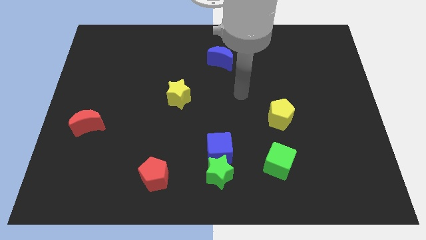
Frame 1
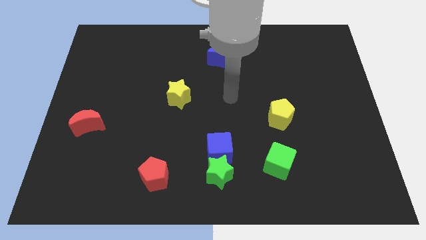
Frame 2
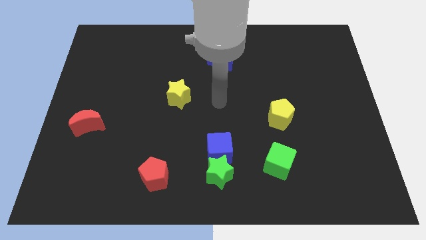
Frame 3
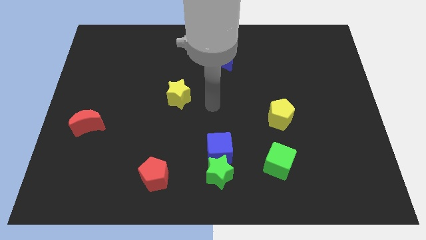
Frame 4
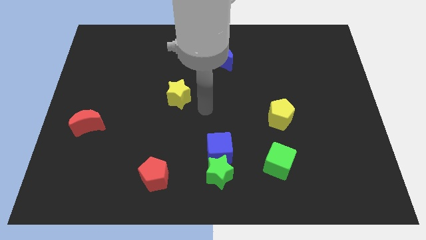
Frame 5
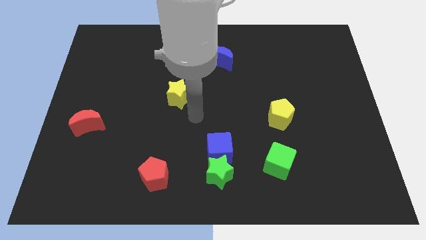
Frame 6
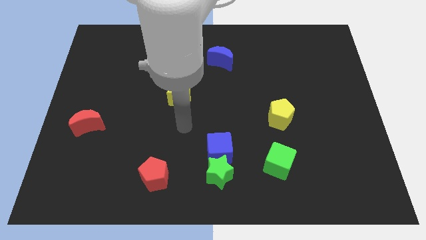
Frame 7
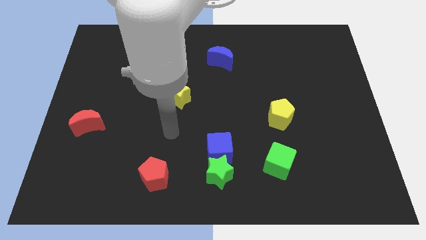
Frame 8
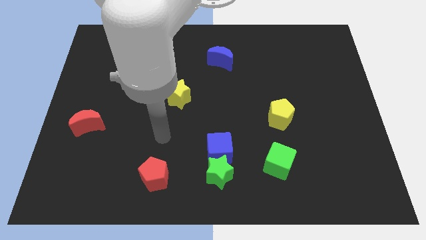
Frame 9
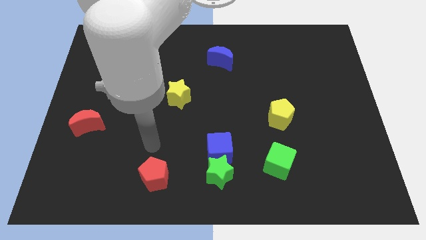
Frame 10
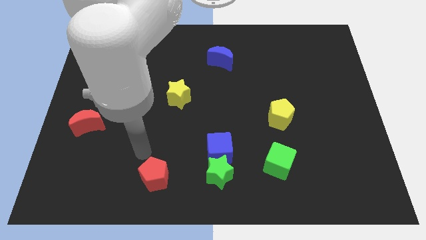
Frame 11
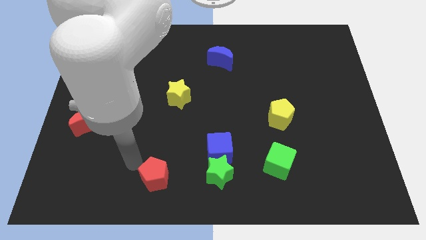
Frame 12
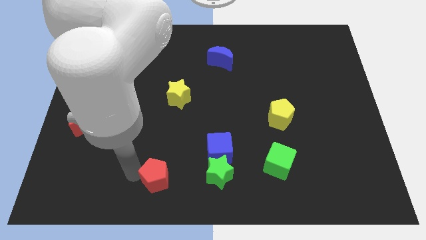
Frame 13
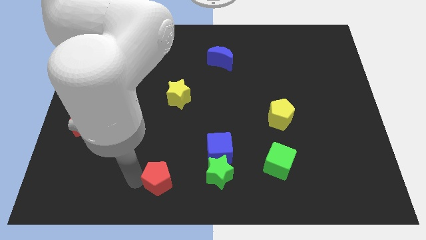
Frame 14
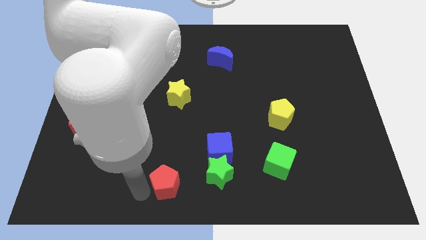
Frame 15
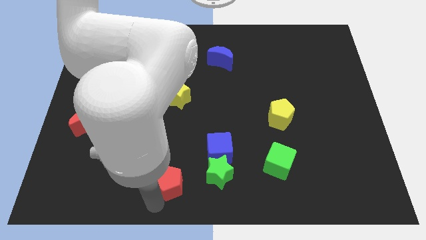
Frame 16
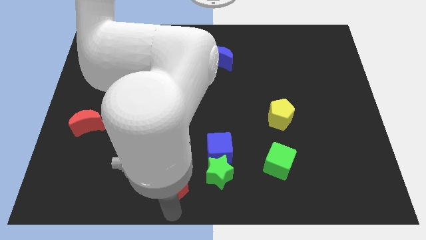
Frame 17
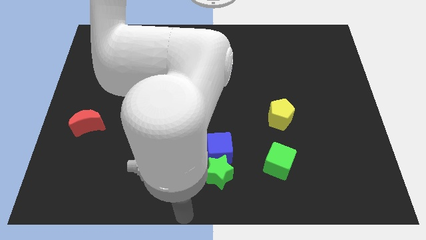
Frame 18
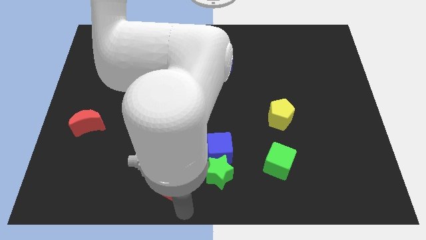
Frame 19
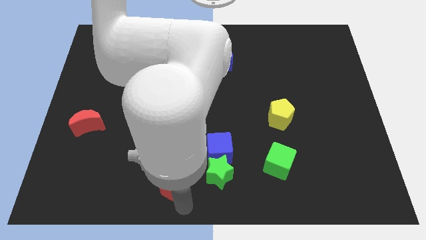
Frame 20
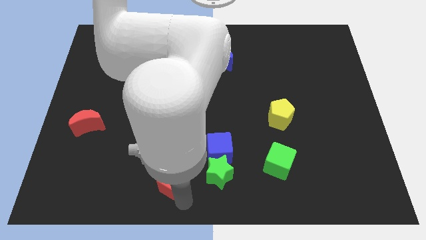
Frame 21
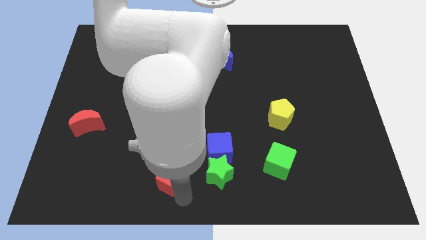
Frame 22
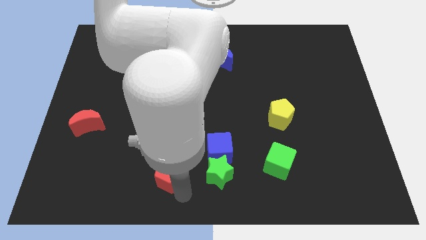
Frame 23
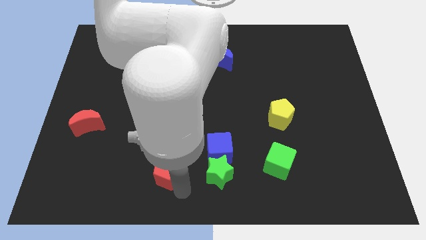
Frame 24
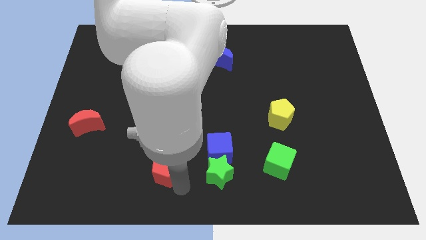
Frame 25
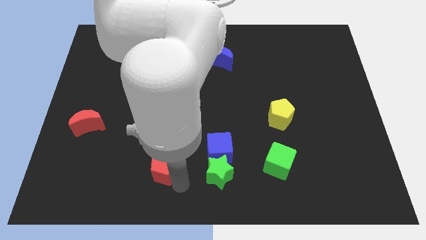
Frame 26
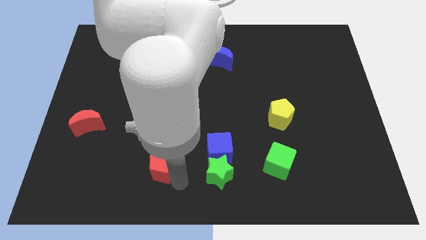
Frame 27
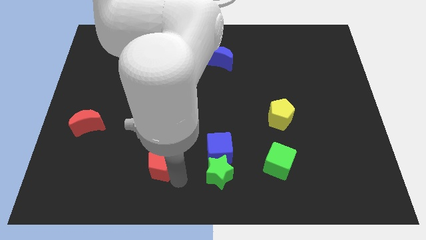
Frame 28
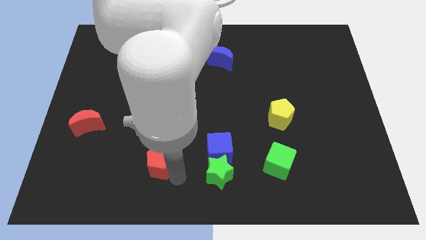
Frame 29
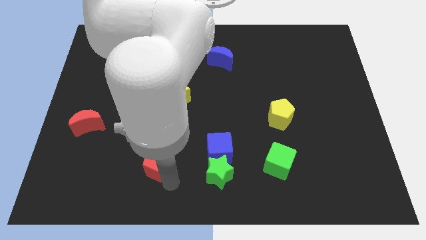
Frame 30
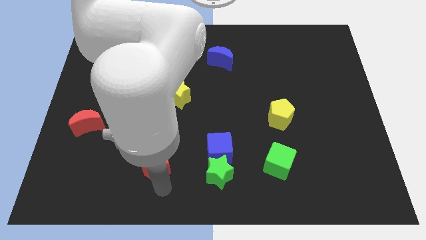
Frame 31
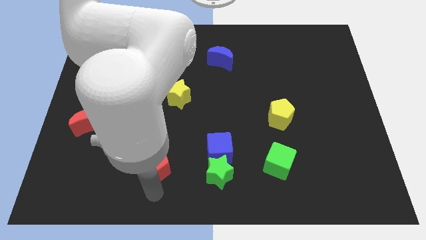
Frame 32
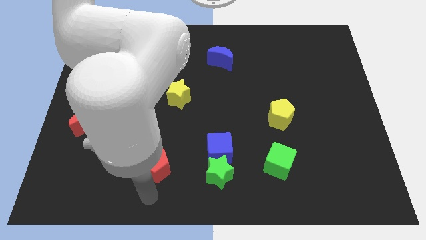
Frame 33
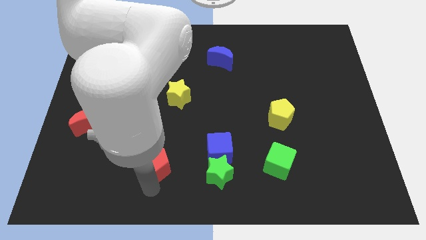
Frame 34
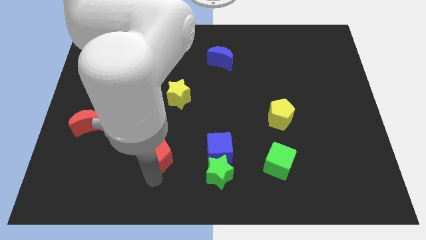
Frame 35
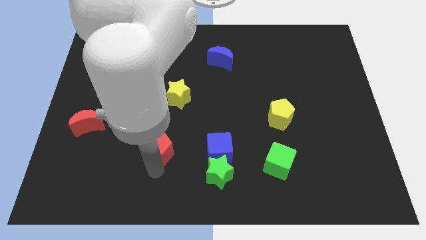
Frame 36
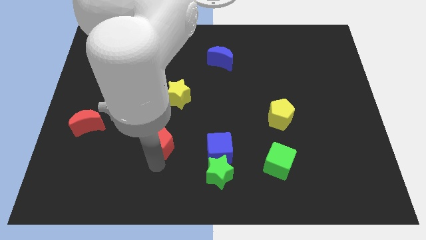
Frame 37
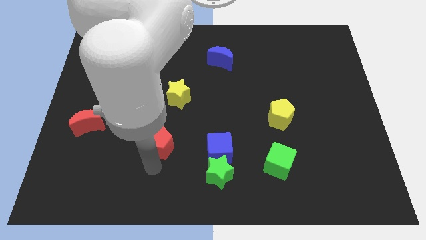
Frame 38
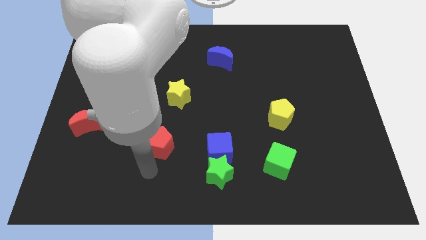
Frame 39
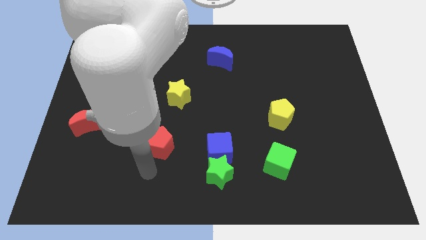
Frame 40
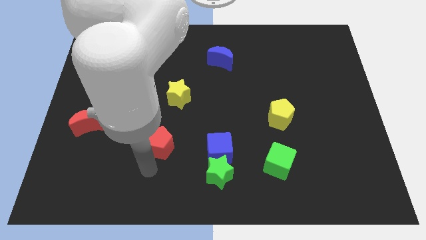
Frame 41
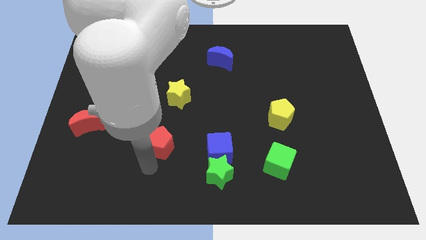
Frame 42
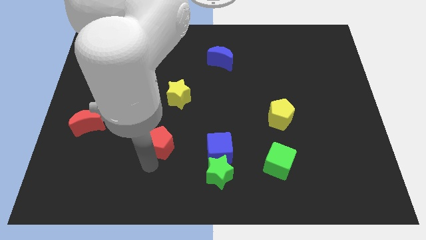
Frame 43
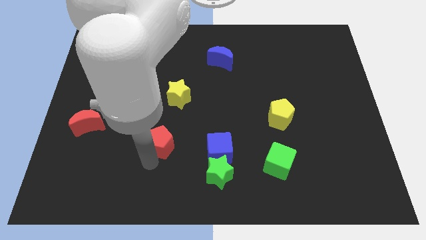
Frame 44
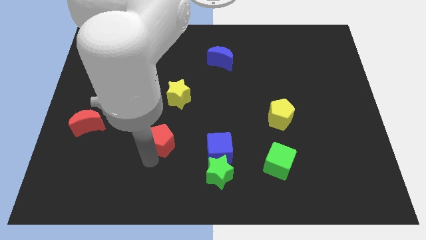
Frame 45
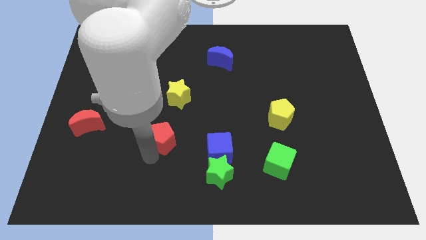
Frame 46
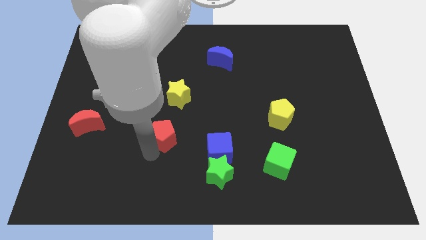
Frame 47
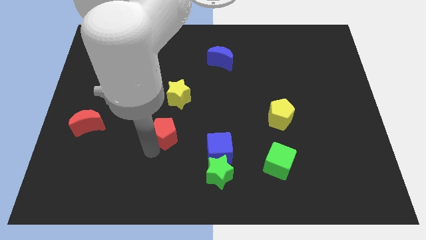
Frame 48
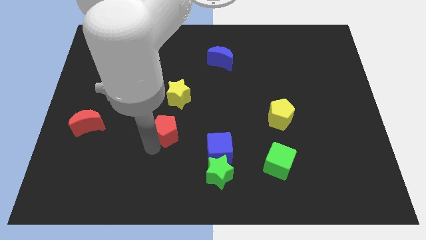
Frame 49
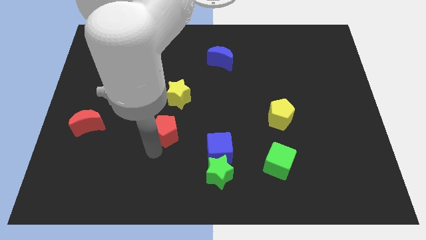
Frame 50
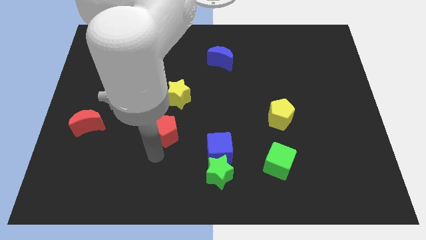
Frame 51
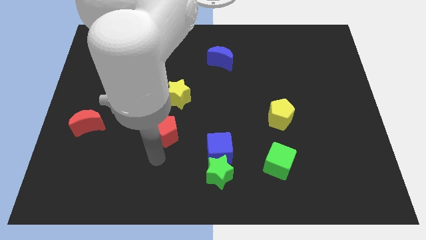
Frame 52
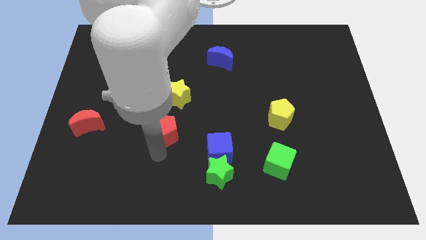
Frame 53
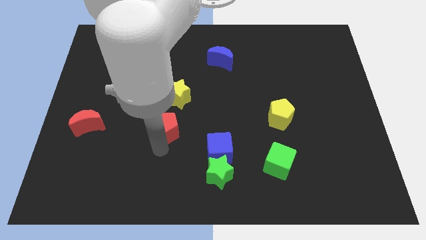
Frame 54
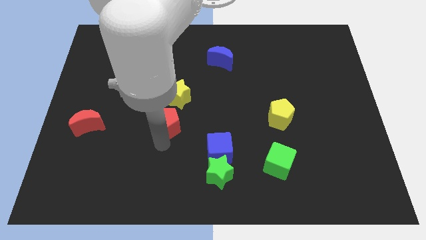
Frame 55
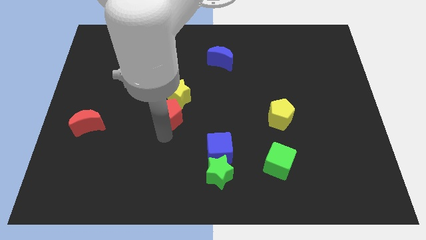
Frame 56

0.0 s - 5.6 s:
move the red pentagon to the yellow star

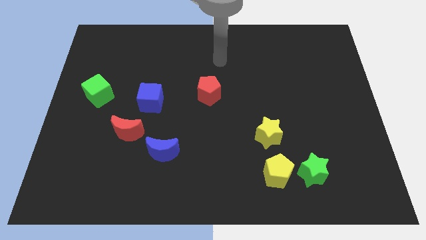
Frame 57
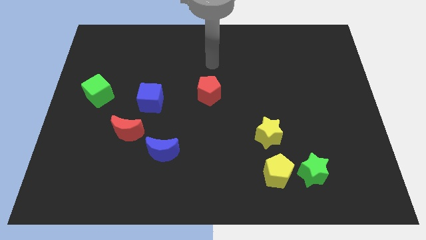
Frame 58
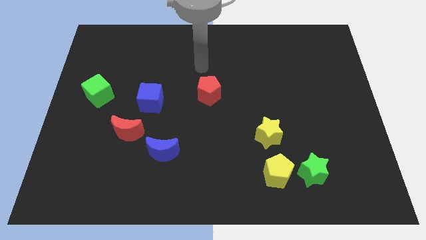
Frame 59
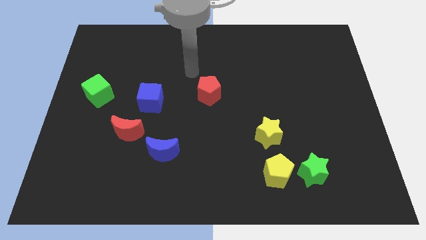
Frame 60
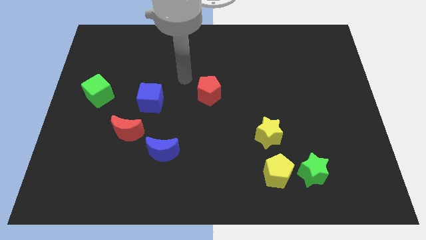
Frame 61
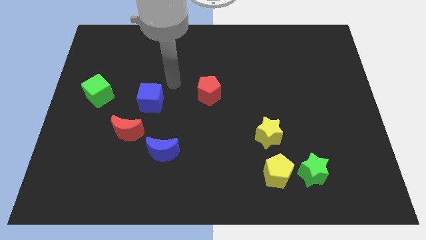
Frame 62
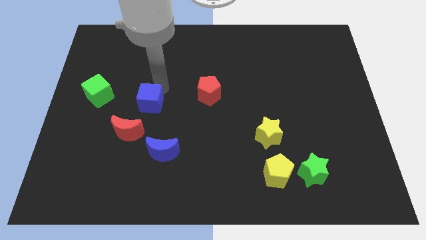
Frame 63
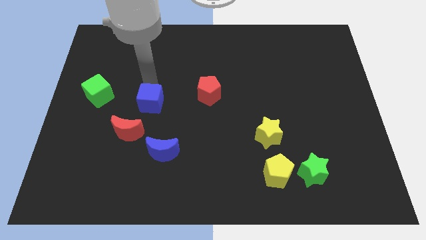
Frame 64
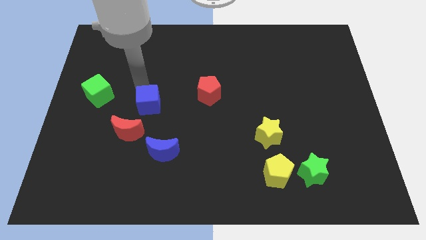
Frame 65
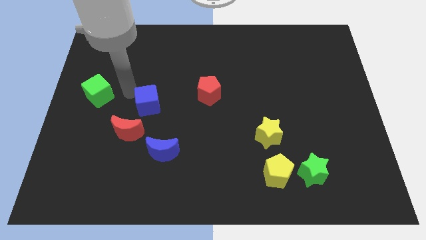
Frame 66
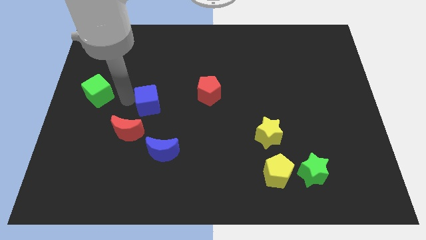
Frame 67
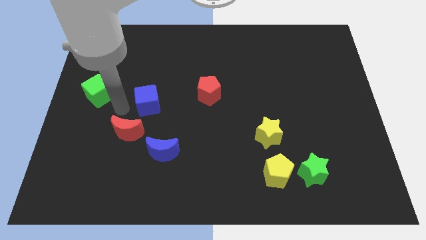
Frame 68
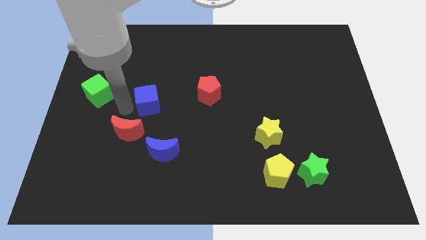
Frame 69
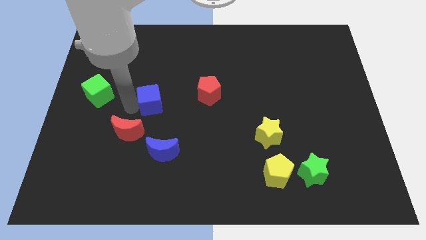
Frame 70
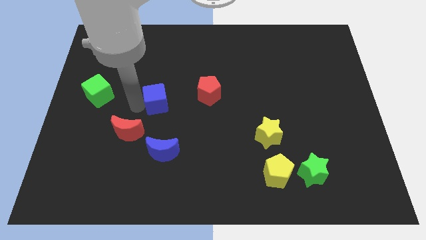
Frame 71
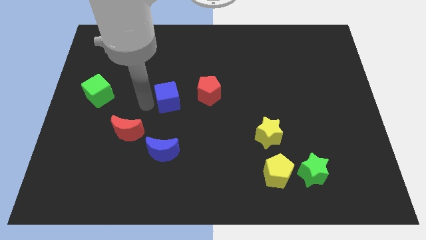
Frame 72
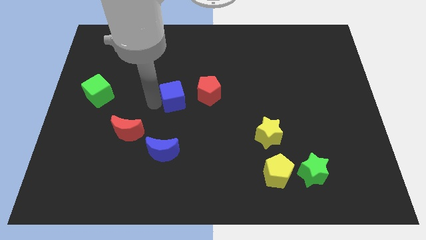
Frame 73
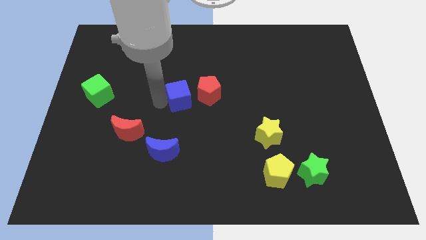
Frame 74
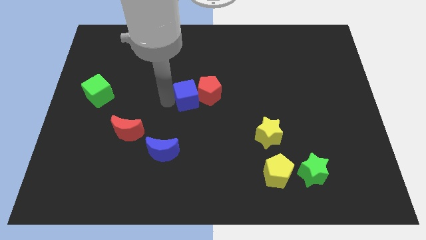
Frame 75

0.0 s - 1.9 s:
slide the blue cube towards the red pentagon
